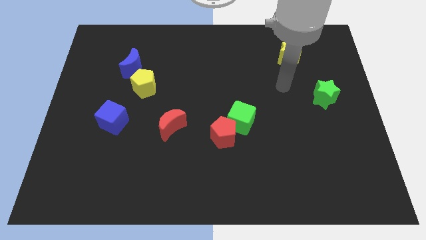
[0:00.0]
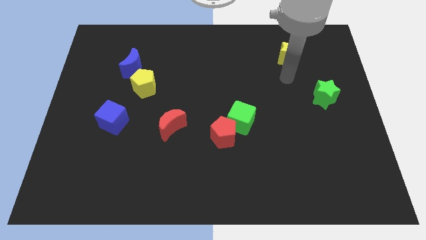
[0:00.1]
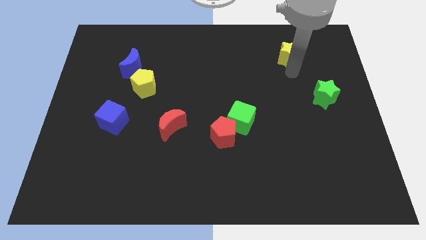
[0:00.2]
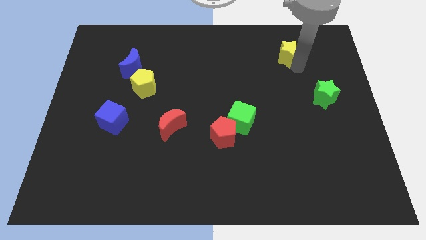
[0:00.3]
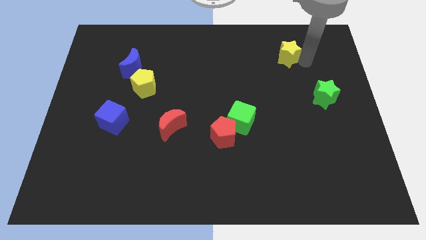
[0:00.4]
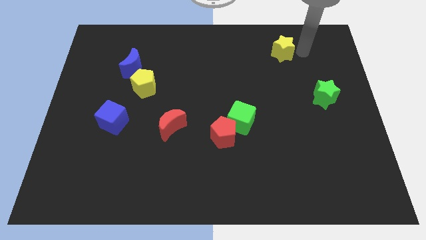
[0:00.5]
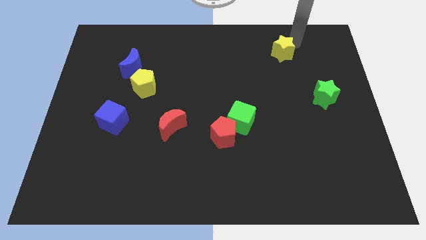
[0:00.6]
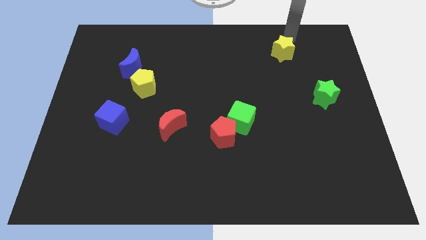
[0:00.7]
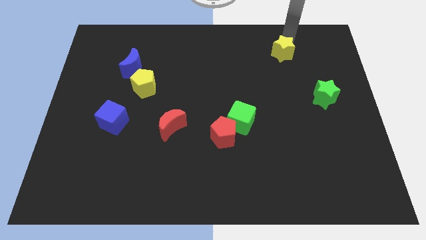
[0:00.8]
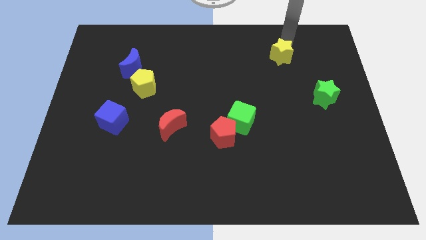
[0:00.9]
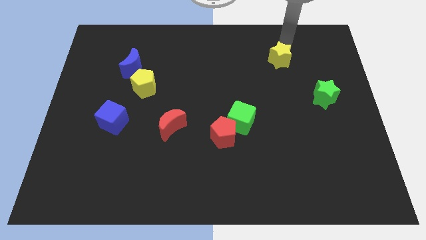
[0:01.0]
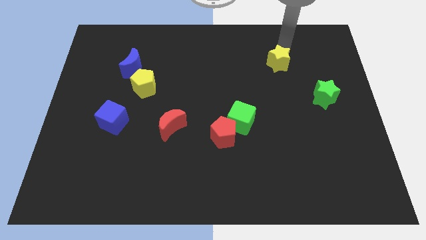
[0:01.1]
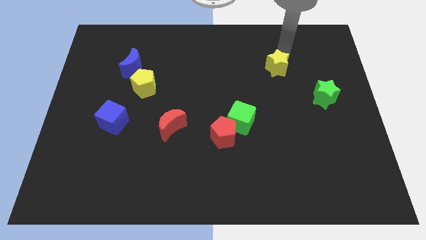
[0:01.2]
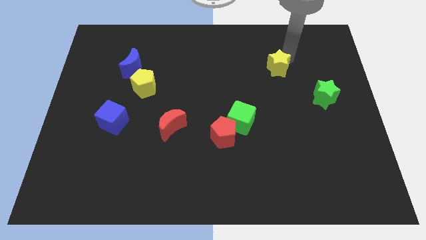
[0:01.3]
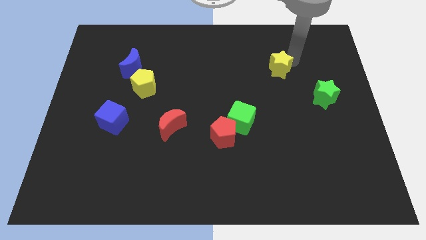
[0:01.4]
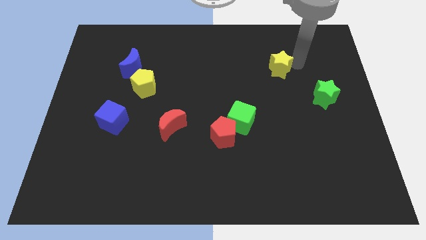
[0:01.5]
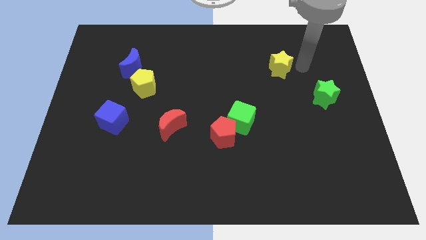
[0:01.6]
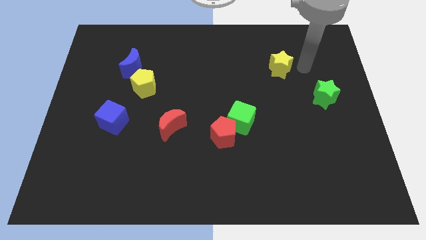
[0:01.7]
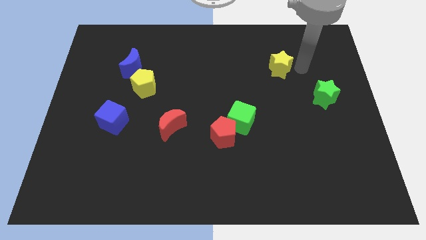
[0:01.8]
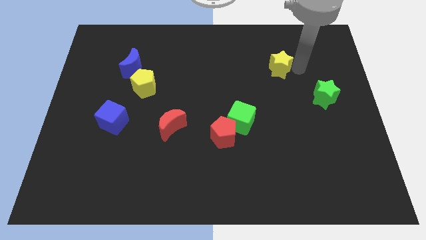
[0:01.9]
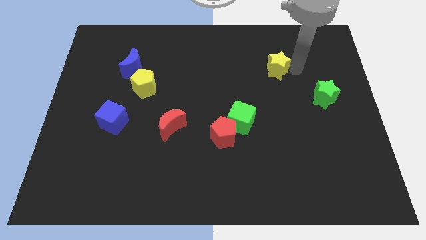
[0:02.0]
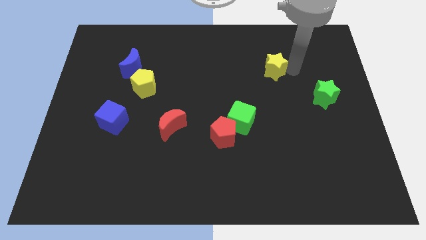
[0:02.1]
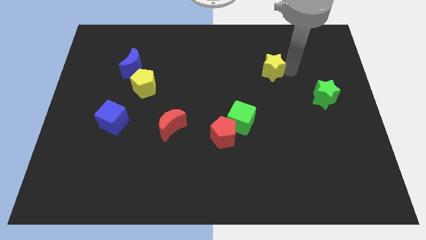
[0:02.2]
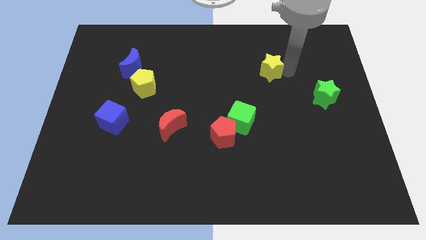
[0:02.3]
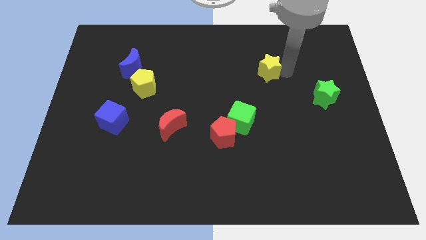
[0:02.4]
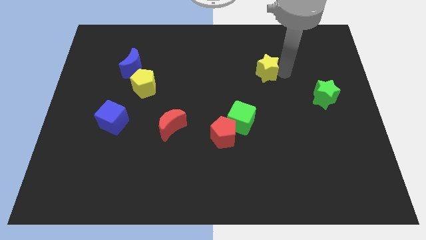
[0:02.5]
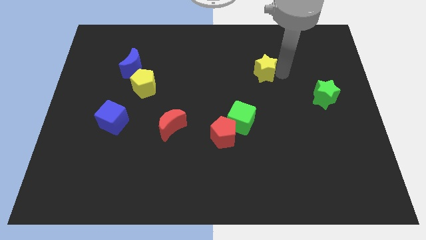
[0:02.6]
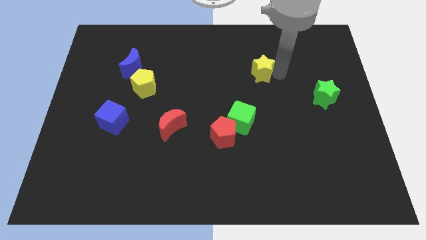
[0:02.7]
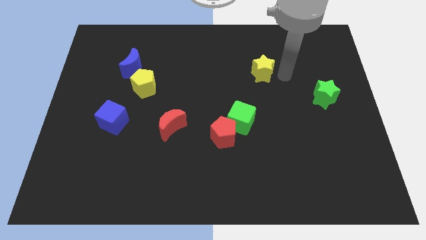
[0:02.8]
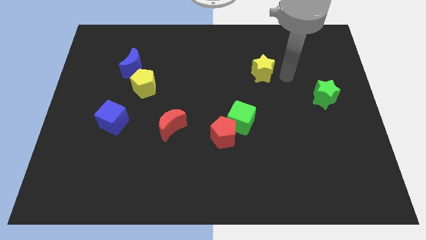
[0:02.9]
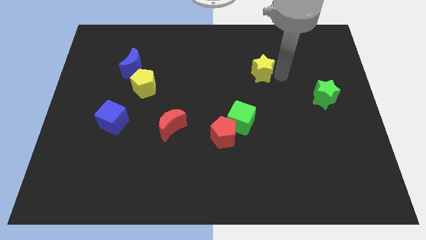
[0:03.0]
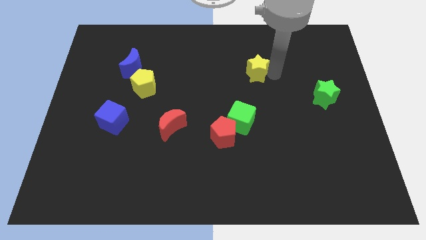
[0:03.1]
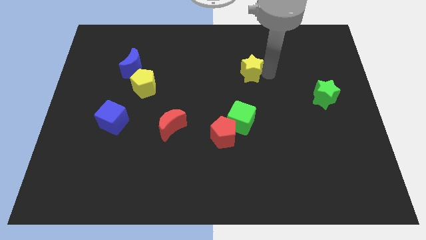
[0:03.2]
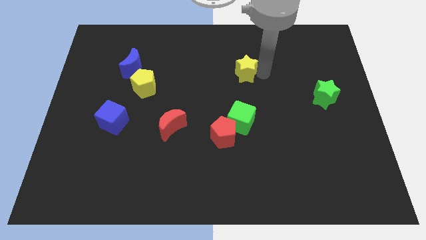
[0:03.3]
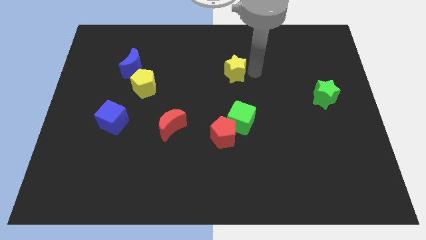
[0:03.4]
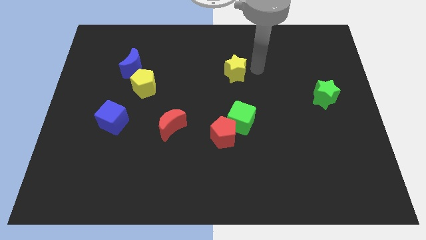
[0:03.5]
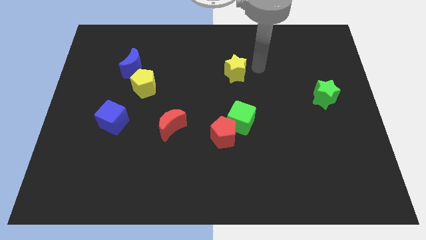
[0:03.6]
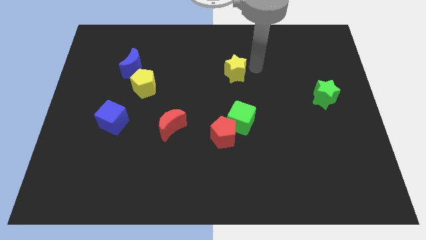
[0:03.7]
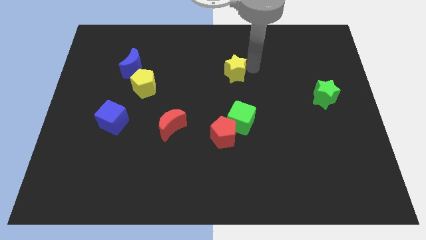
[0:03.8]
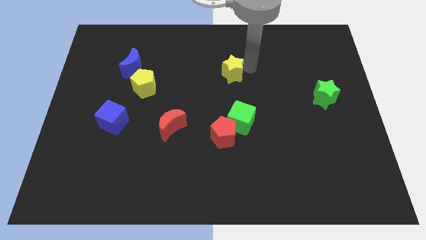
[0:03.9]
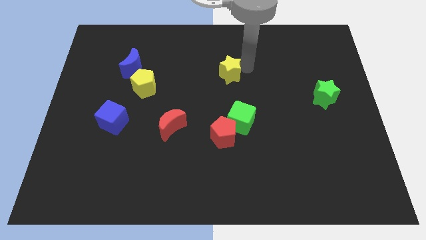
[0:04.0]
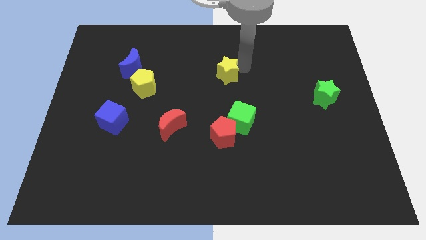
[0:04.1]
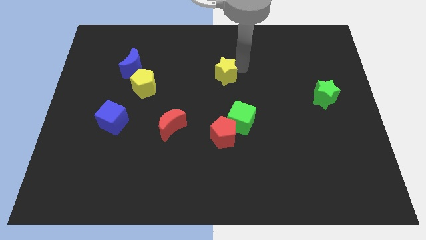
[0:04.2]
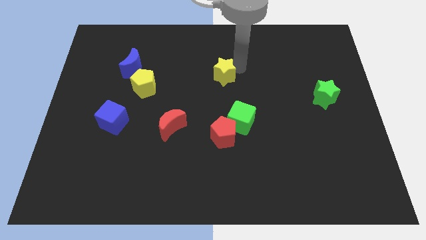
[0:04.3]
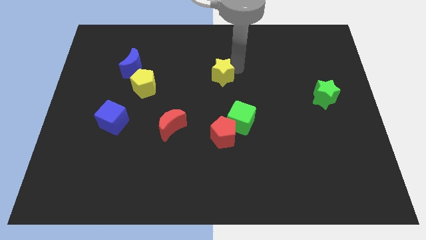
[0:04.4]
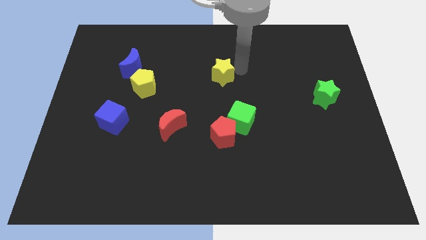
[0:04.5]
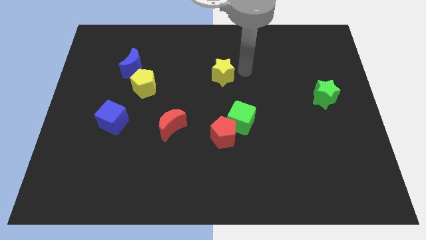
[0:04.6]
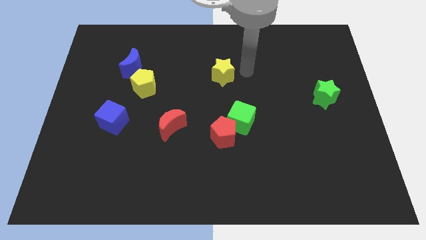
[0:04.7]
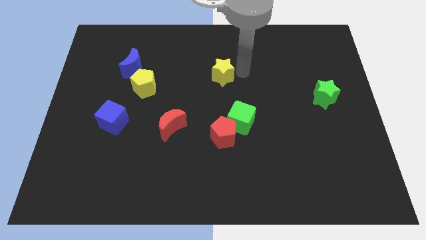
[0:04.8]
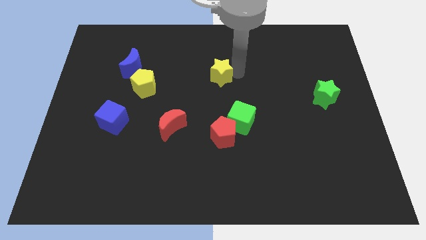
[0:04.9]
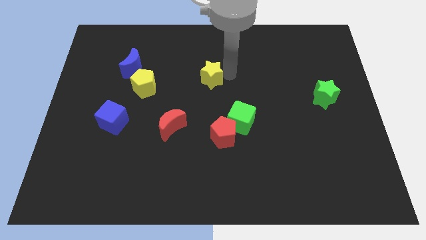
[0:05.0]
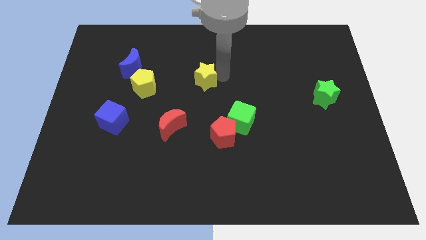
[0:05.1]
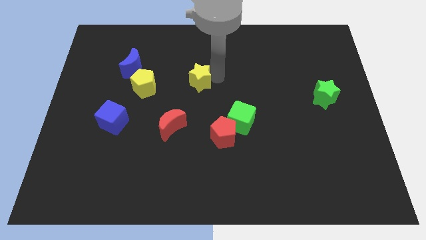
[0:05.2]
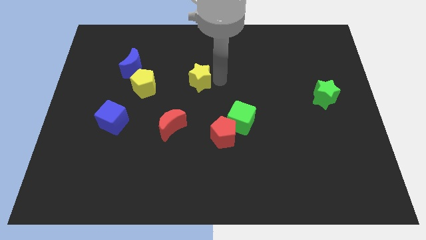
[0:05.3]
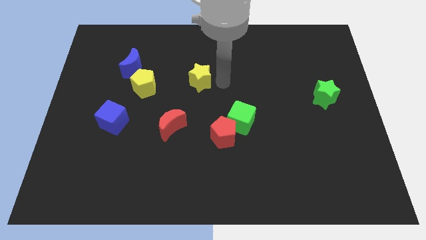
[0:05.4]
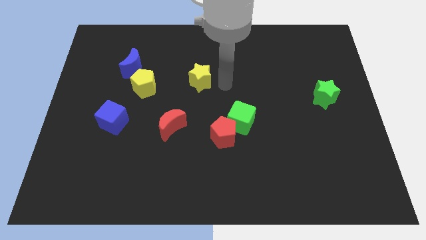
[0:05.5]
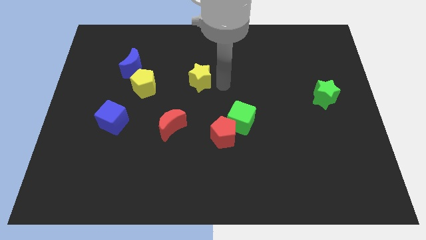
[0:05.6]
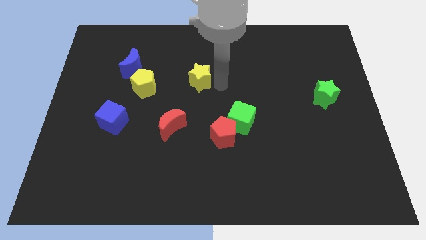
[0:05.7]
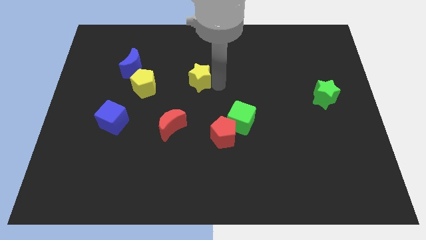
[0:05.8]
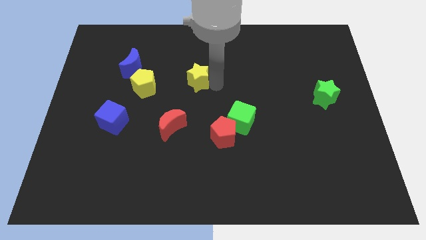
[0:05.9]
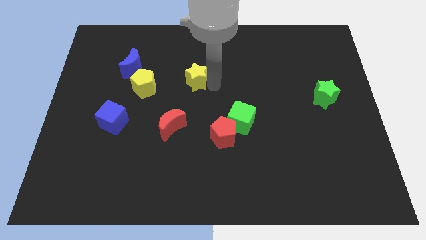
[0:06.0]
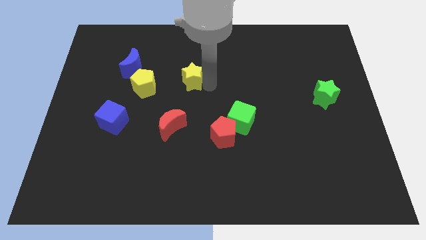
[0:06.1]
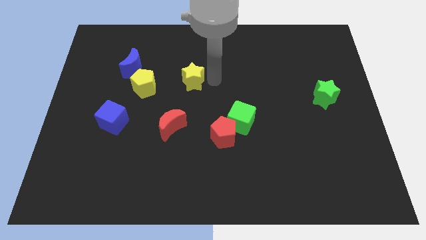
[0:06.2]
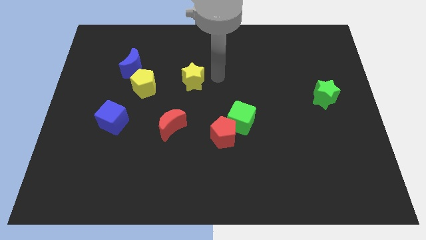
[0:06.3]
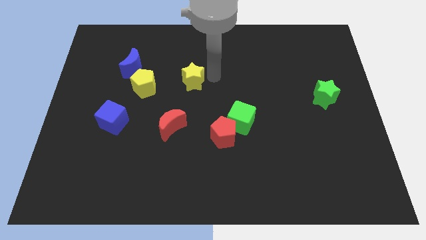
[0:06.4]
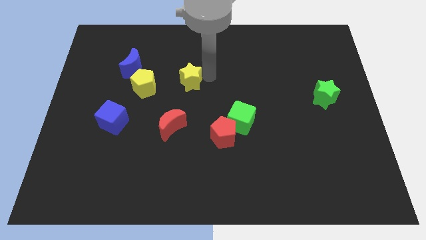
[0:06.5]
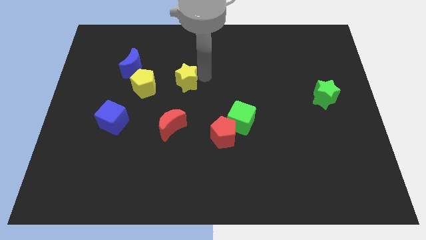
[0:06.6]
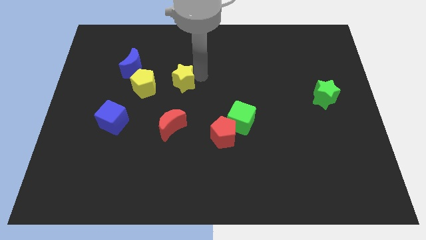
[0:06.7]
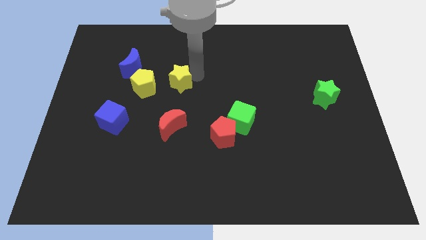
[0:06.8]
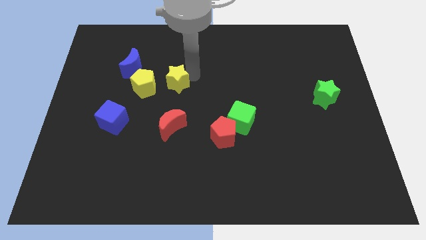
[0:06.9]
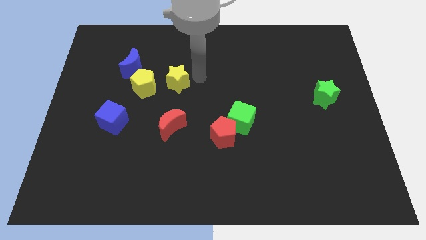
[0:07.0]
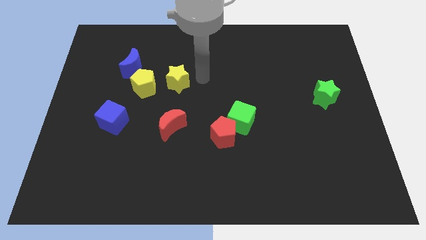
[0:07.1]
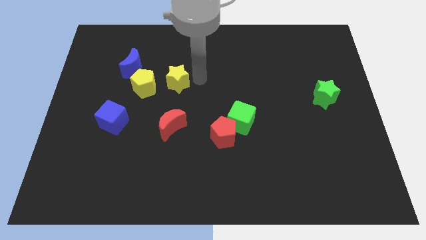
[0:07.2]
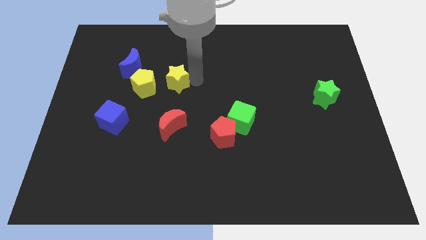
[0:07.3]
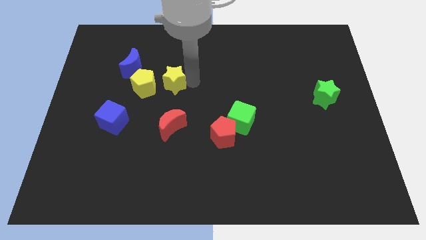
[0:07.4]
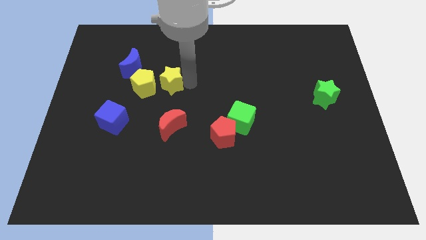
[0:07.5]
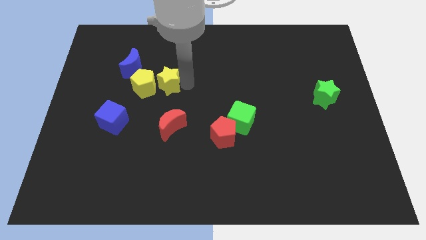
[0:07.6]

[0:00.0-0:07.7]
slide the yellow star towards the yellow pentagon
